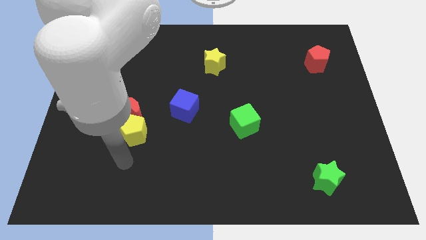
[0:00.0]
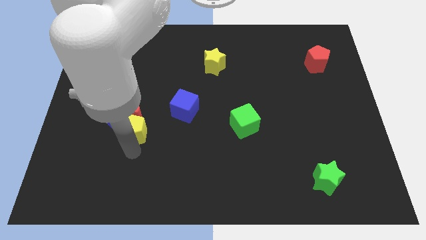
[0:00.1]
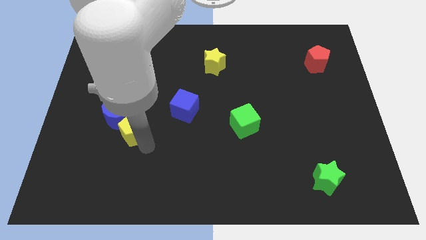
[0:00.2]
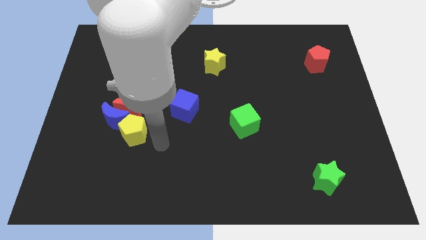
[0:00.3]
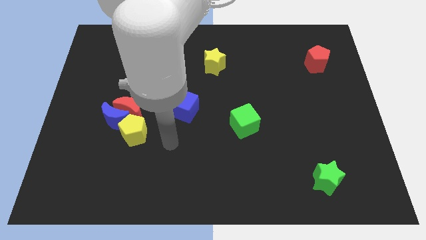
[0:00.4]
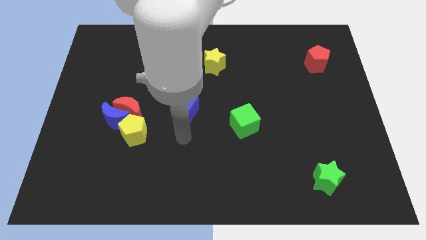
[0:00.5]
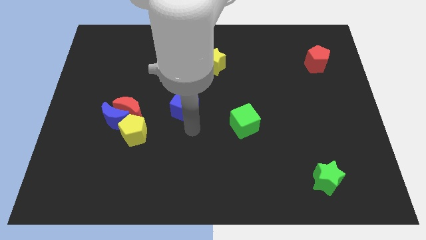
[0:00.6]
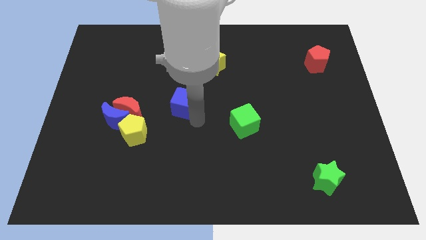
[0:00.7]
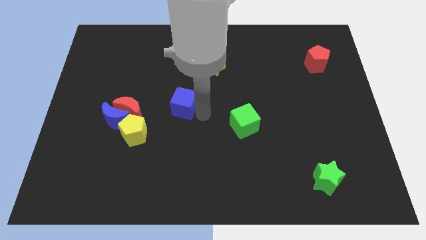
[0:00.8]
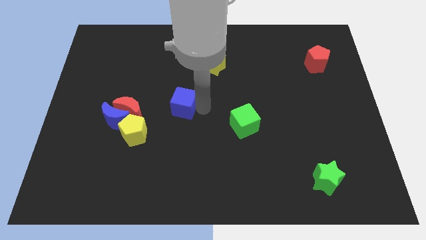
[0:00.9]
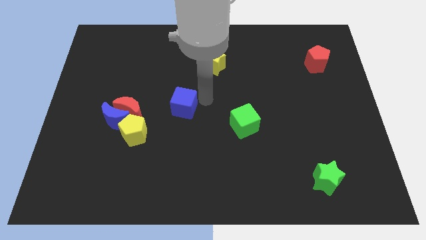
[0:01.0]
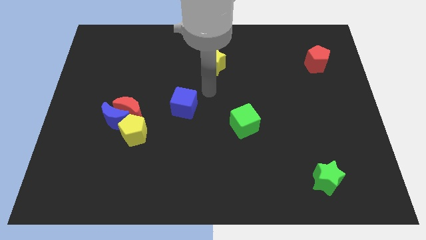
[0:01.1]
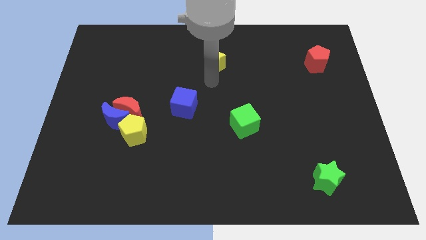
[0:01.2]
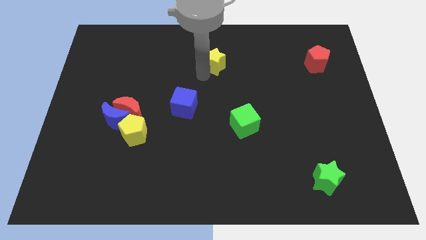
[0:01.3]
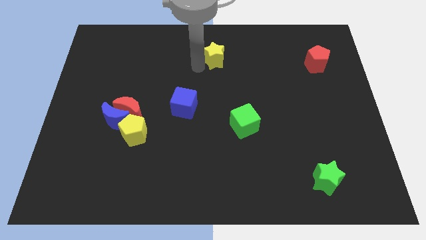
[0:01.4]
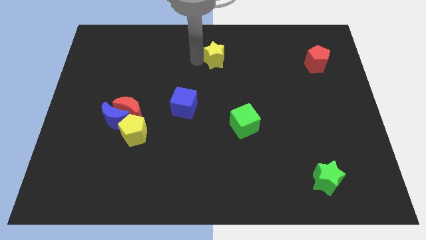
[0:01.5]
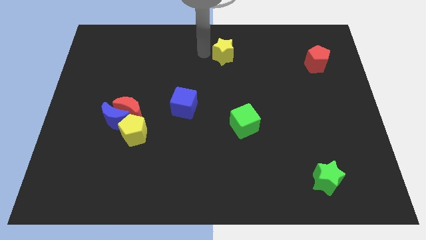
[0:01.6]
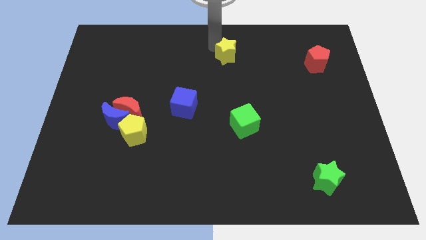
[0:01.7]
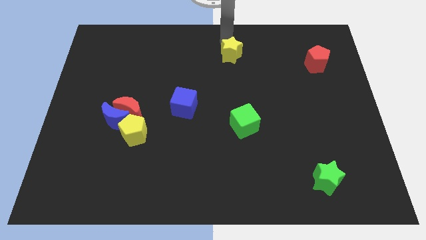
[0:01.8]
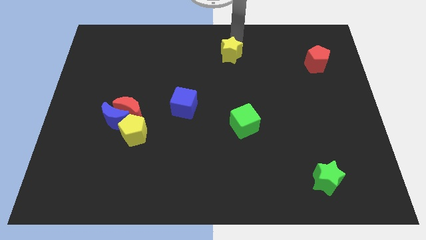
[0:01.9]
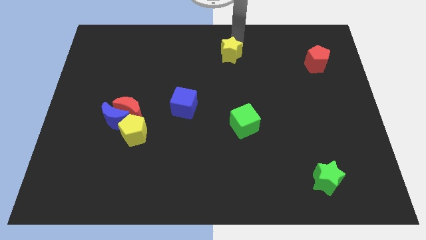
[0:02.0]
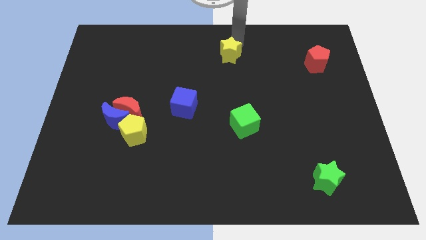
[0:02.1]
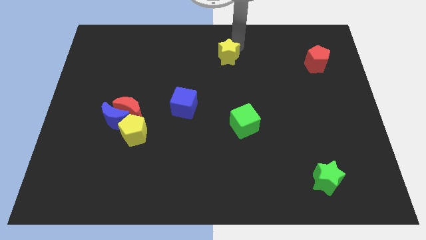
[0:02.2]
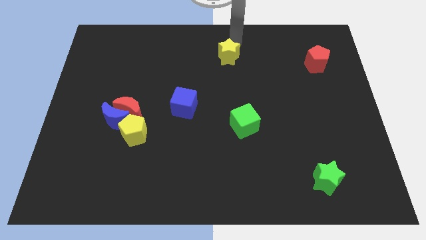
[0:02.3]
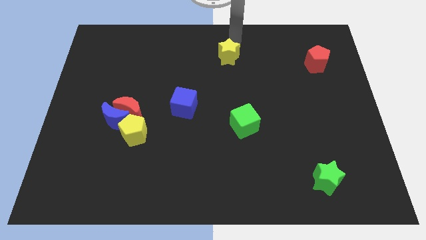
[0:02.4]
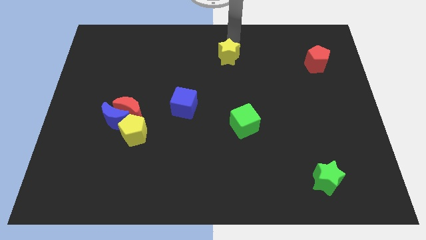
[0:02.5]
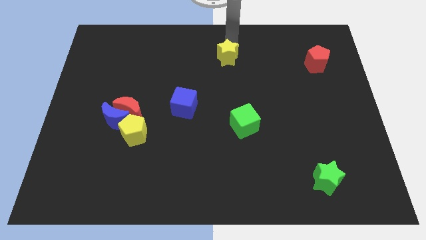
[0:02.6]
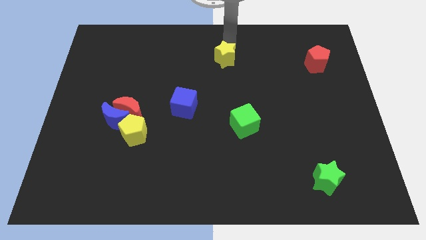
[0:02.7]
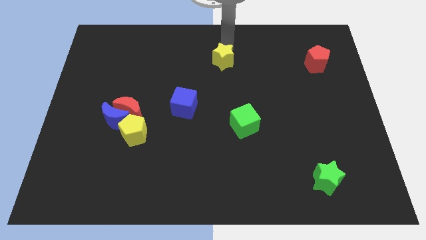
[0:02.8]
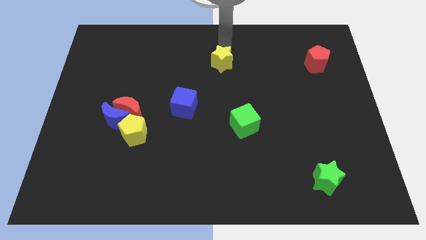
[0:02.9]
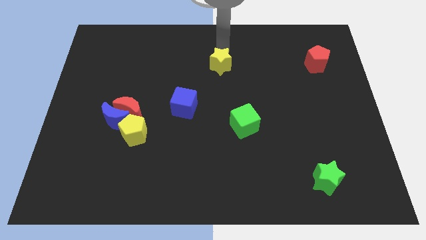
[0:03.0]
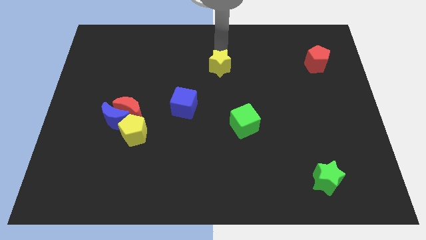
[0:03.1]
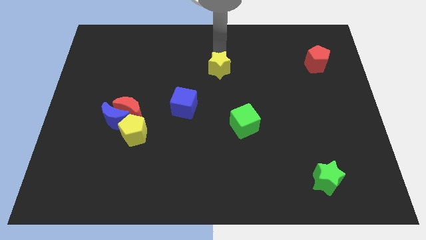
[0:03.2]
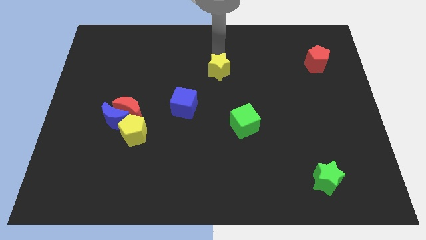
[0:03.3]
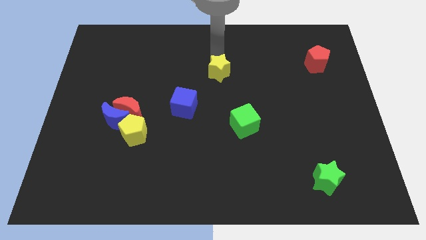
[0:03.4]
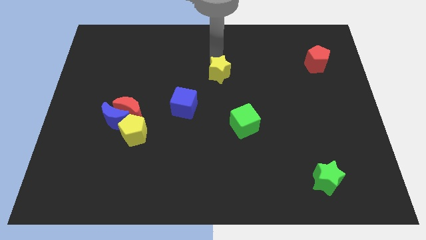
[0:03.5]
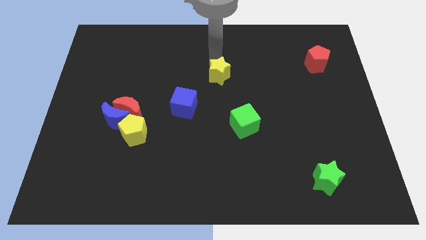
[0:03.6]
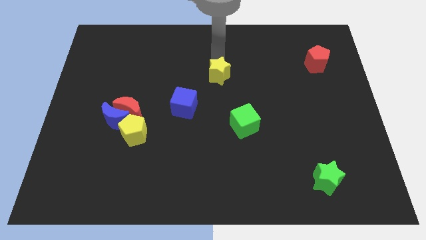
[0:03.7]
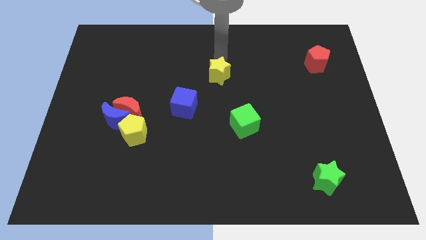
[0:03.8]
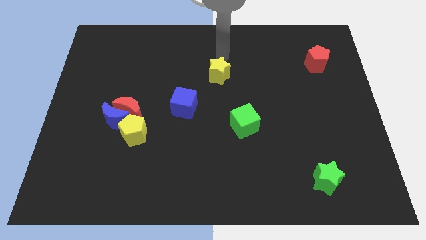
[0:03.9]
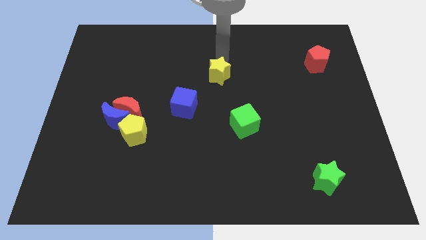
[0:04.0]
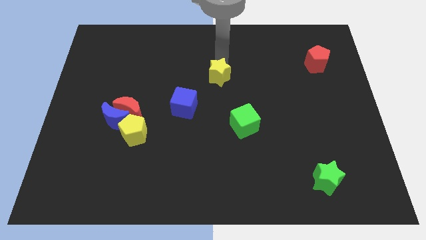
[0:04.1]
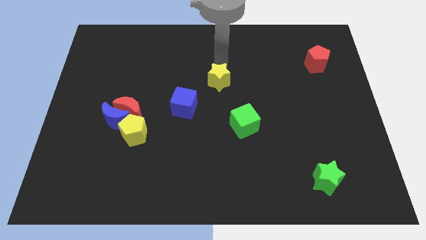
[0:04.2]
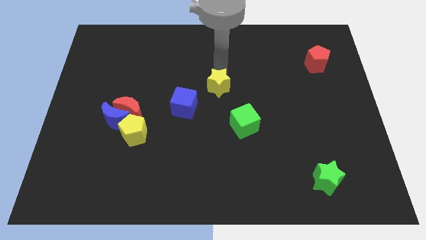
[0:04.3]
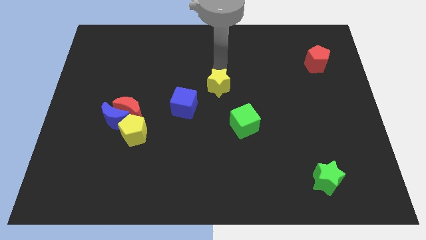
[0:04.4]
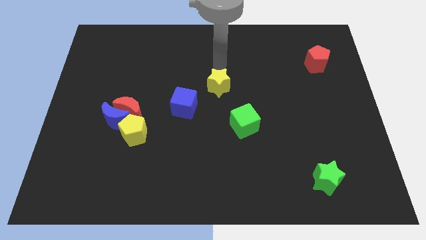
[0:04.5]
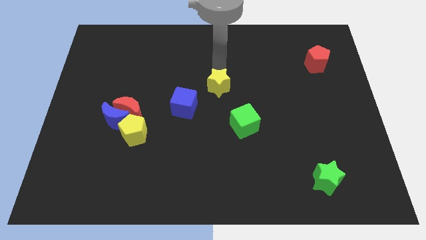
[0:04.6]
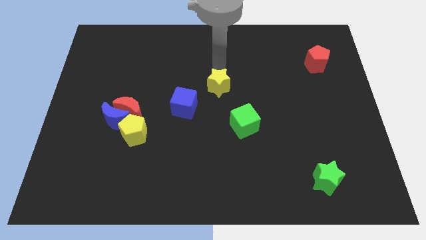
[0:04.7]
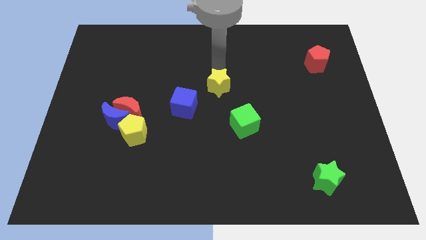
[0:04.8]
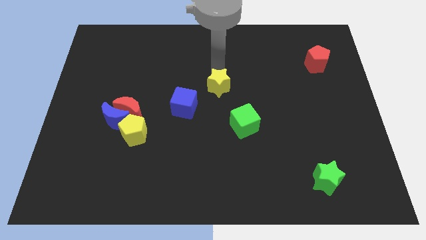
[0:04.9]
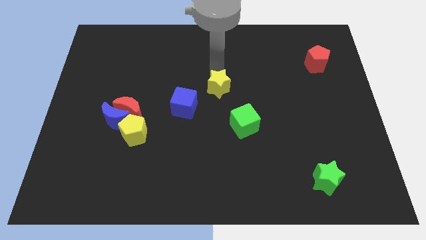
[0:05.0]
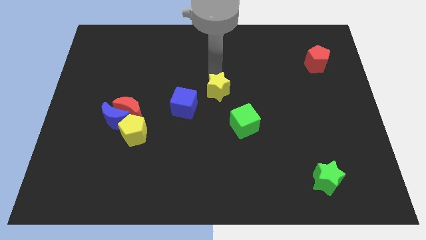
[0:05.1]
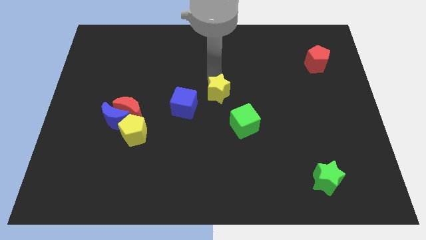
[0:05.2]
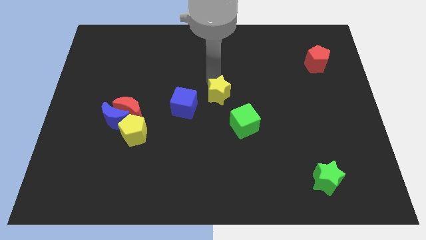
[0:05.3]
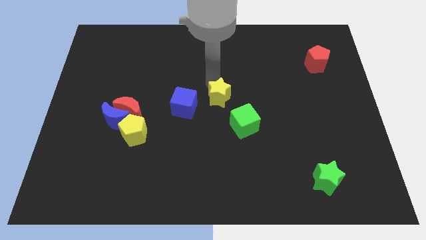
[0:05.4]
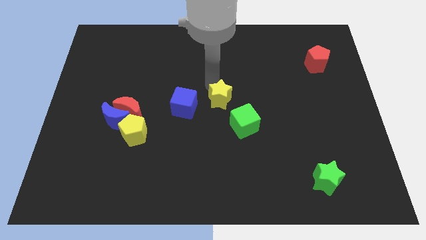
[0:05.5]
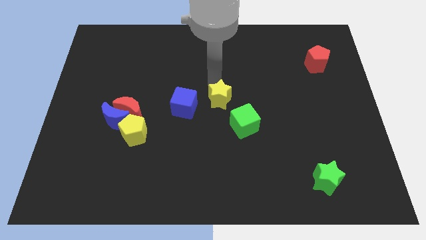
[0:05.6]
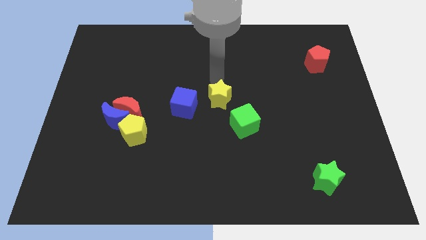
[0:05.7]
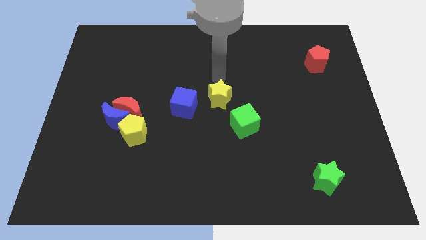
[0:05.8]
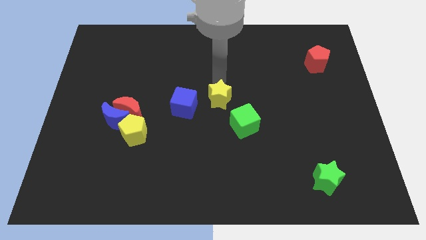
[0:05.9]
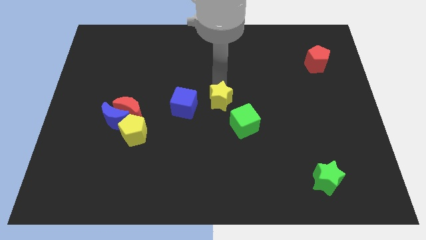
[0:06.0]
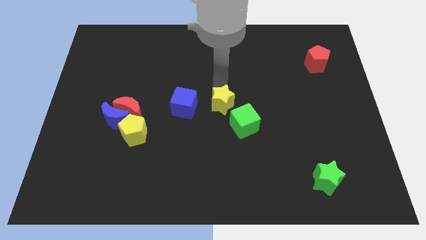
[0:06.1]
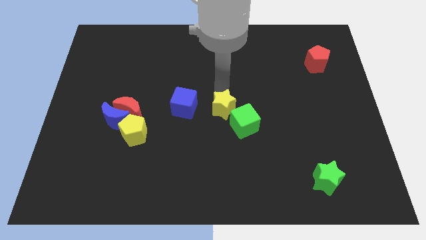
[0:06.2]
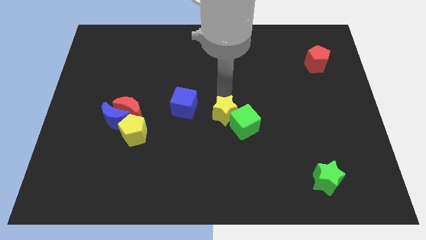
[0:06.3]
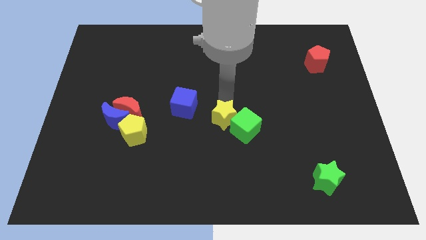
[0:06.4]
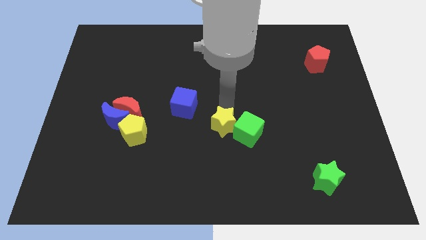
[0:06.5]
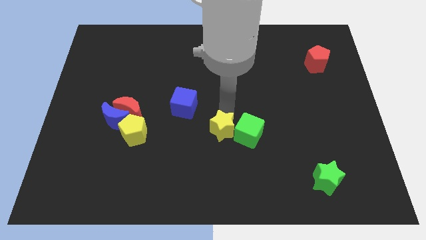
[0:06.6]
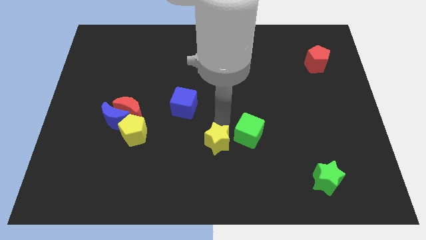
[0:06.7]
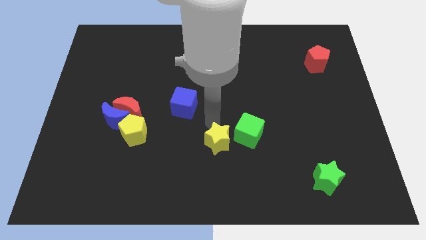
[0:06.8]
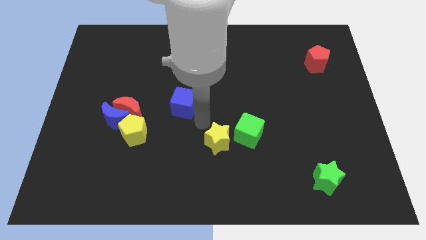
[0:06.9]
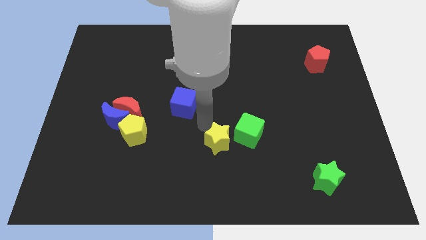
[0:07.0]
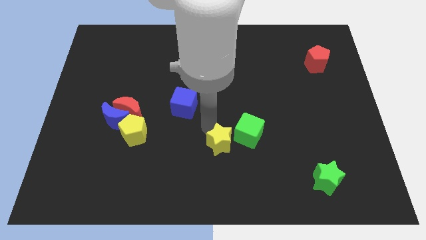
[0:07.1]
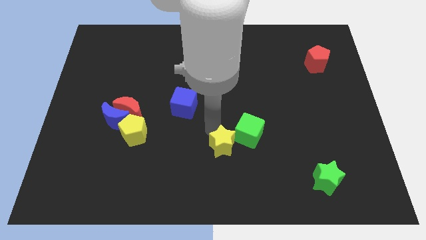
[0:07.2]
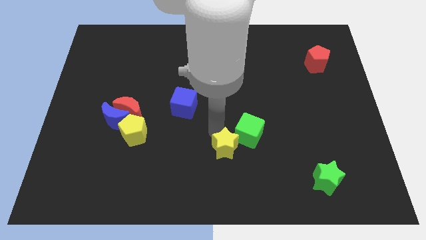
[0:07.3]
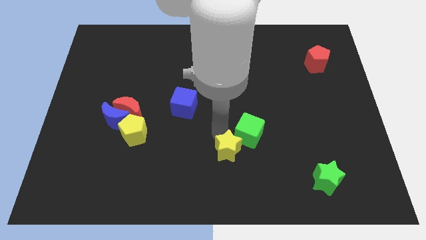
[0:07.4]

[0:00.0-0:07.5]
put the yellow star to the bottom of the green cube
